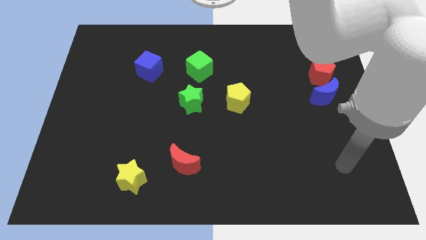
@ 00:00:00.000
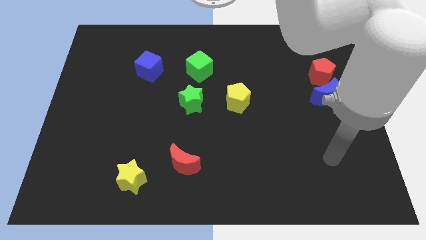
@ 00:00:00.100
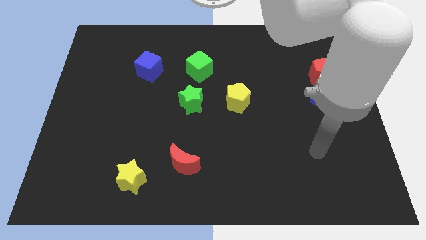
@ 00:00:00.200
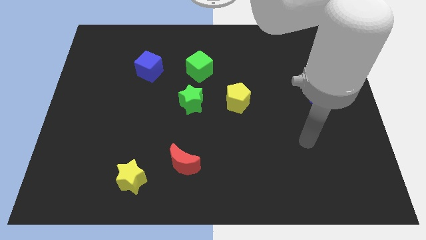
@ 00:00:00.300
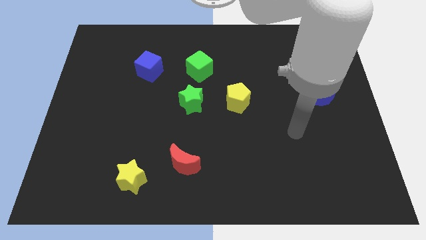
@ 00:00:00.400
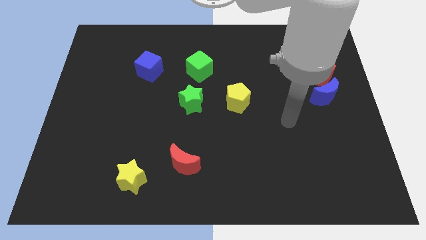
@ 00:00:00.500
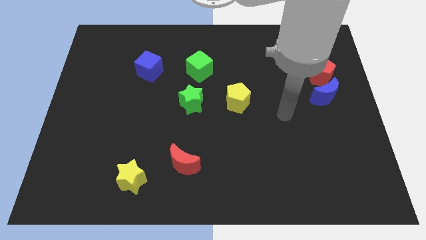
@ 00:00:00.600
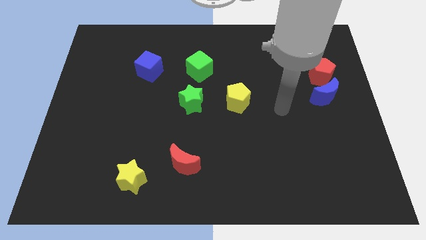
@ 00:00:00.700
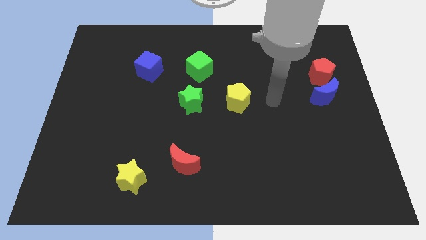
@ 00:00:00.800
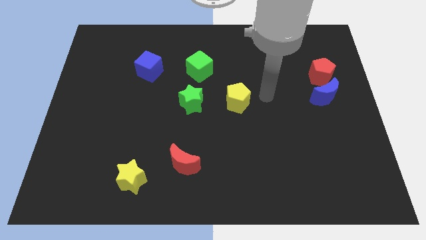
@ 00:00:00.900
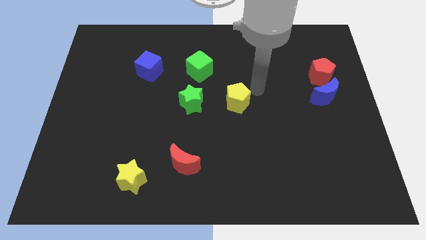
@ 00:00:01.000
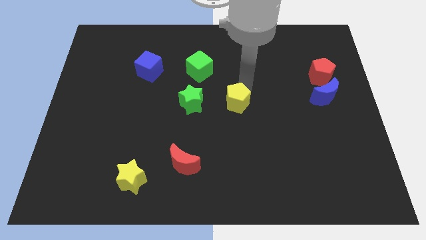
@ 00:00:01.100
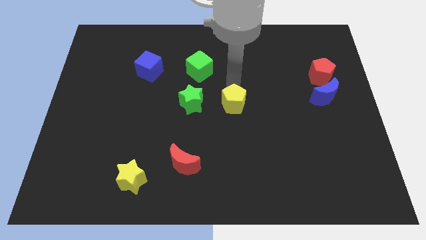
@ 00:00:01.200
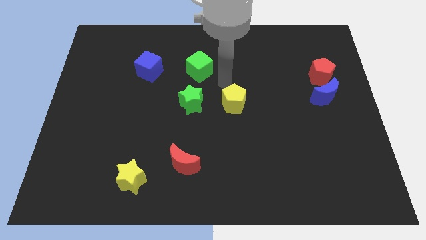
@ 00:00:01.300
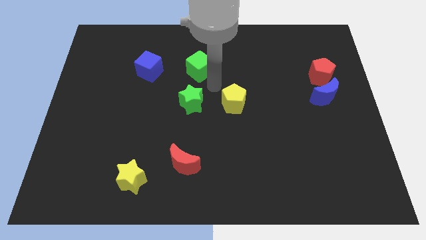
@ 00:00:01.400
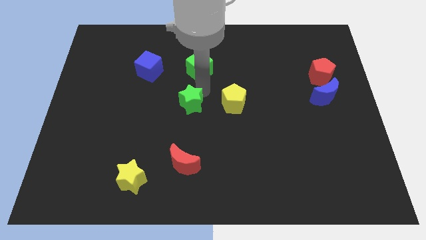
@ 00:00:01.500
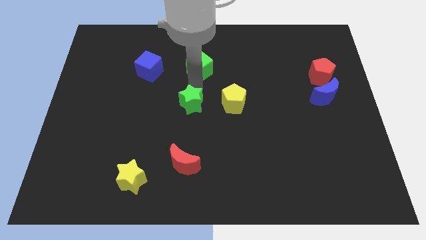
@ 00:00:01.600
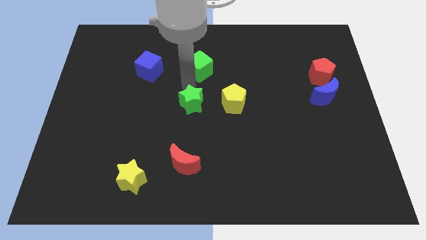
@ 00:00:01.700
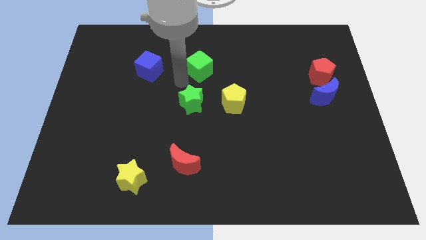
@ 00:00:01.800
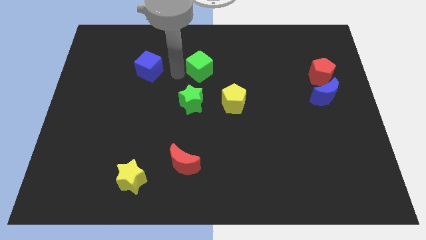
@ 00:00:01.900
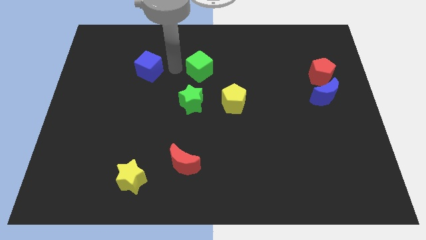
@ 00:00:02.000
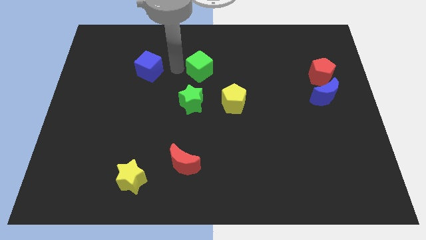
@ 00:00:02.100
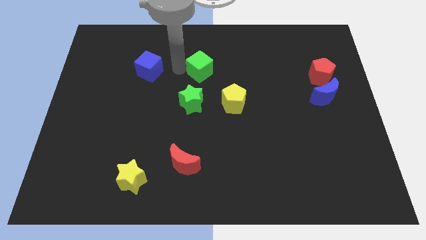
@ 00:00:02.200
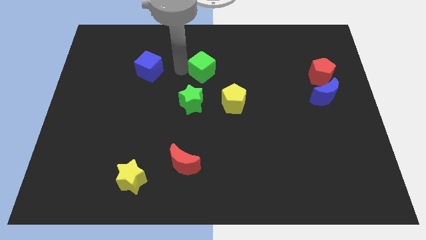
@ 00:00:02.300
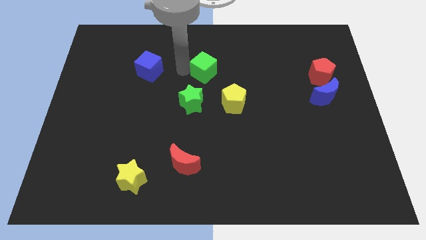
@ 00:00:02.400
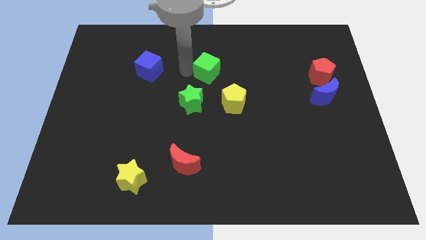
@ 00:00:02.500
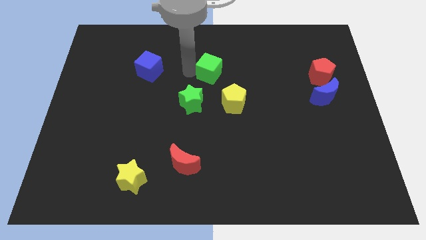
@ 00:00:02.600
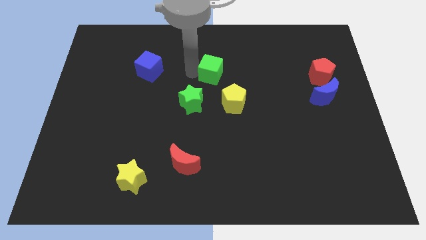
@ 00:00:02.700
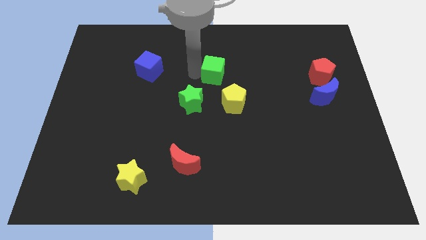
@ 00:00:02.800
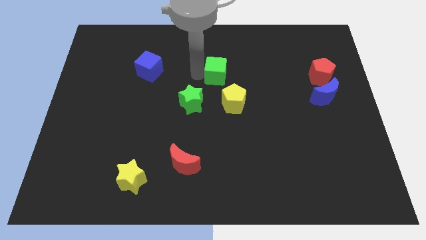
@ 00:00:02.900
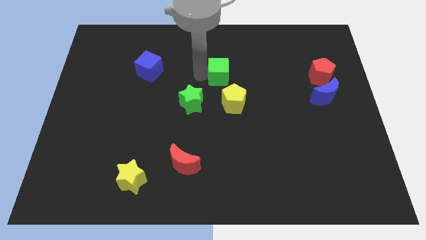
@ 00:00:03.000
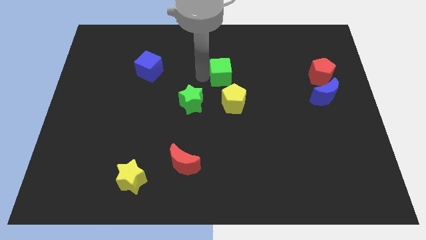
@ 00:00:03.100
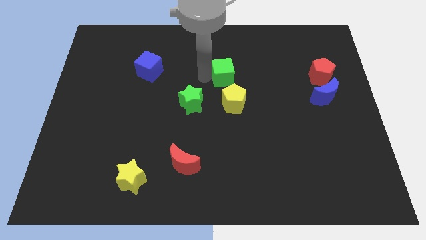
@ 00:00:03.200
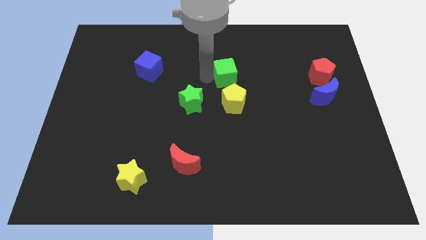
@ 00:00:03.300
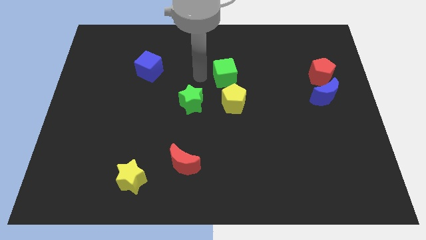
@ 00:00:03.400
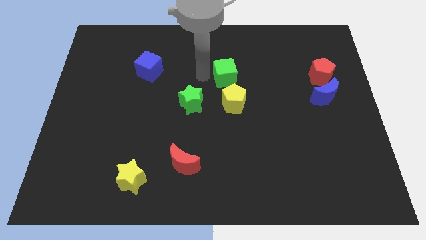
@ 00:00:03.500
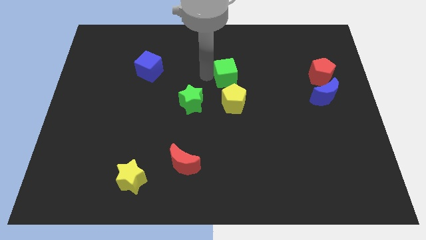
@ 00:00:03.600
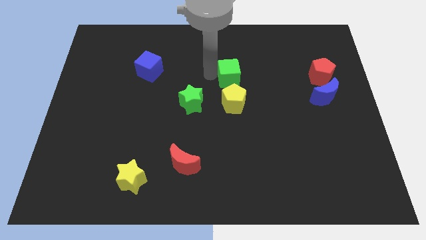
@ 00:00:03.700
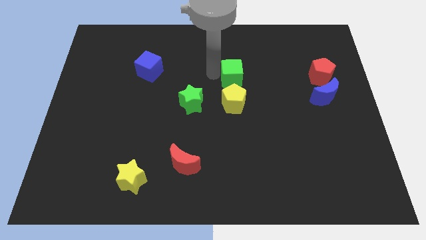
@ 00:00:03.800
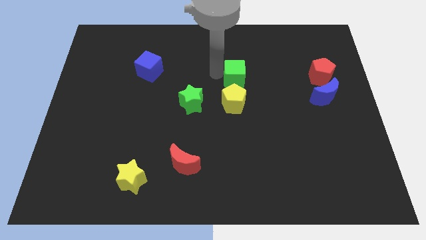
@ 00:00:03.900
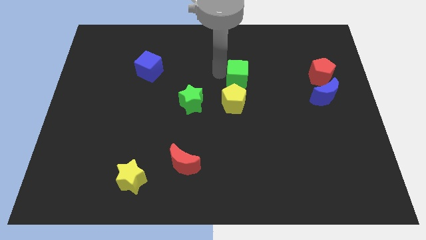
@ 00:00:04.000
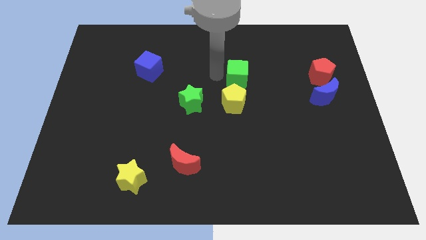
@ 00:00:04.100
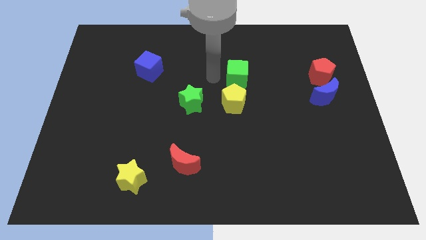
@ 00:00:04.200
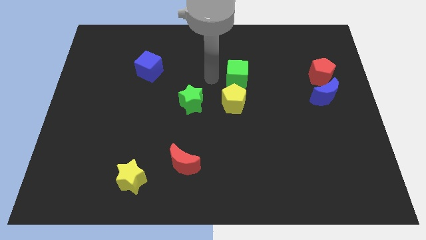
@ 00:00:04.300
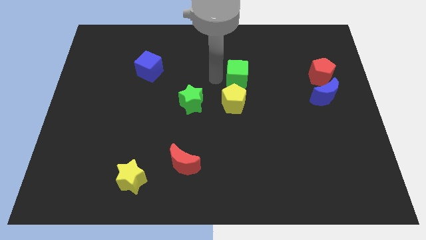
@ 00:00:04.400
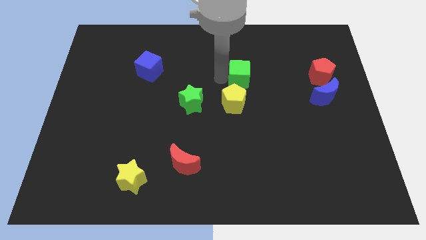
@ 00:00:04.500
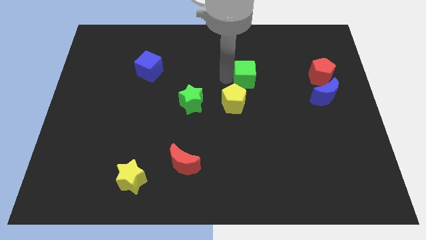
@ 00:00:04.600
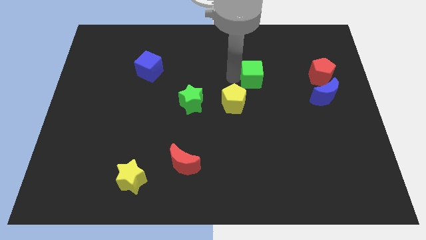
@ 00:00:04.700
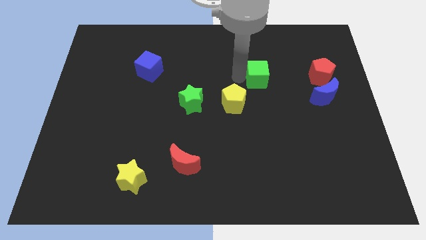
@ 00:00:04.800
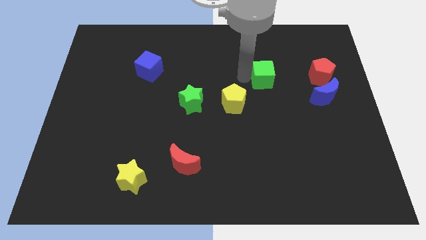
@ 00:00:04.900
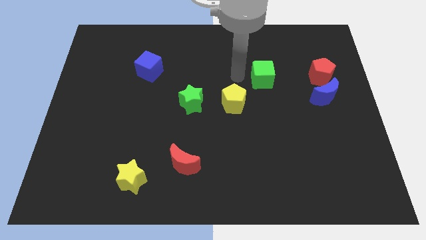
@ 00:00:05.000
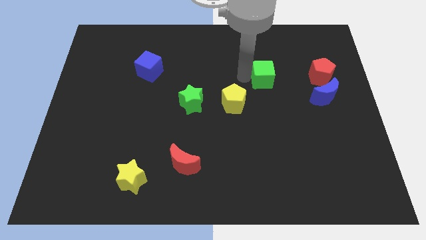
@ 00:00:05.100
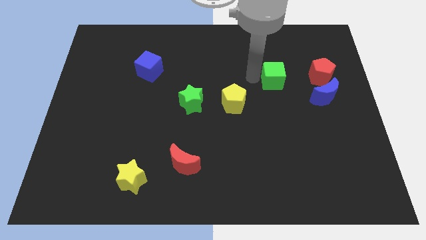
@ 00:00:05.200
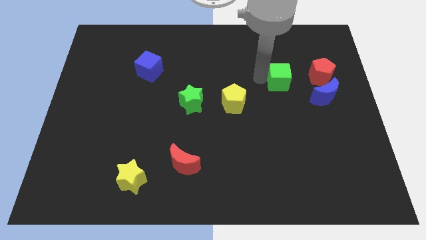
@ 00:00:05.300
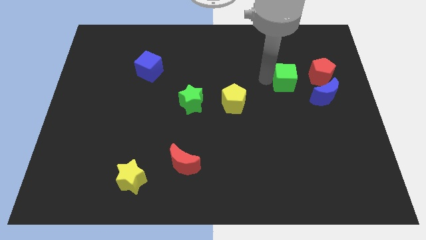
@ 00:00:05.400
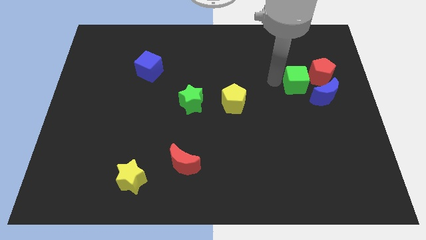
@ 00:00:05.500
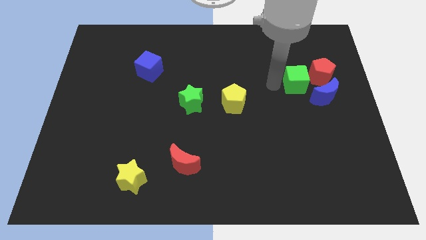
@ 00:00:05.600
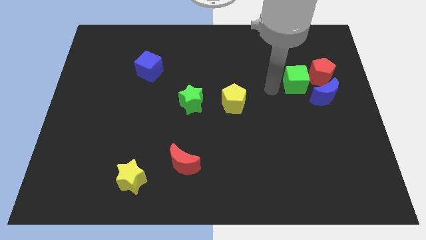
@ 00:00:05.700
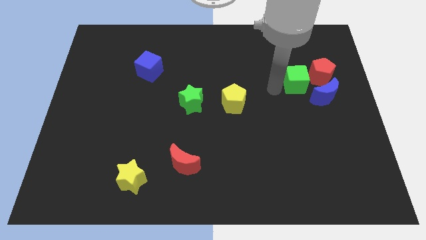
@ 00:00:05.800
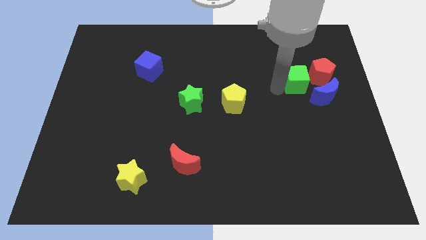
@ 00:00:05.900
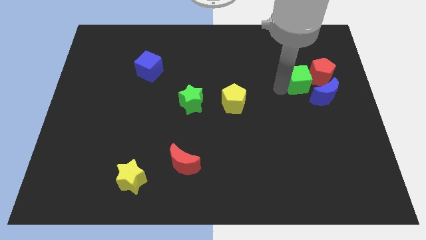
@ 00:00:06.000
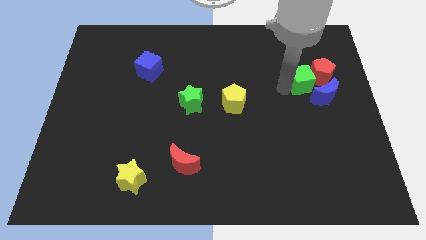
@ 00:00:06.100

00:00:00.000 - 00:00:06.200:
push the green cube next to the red pentagon

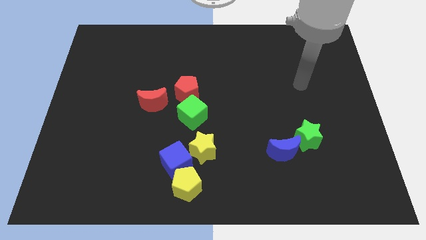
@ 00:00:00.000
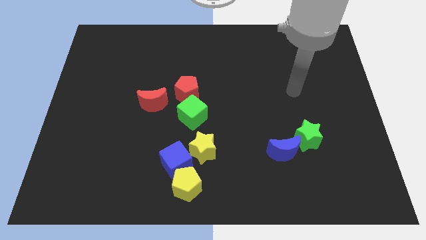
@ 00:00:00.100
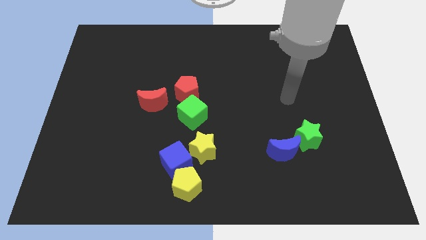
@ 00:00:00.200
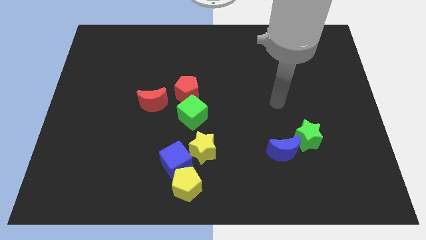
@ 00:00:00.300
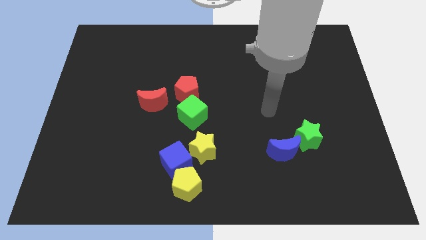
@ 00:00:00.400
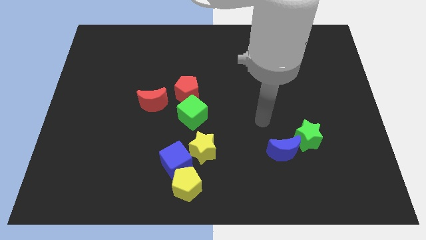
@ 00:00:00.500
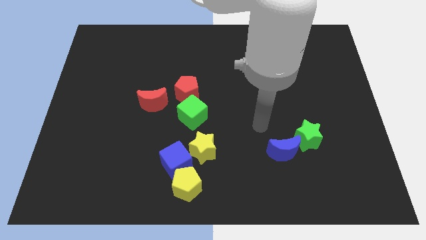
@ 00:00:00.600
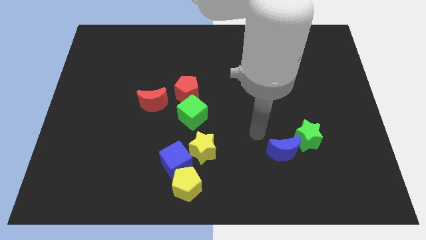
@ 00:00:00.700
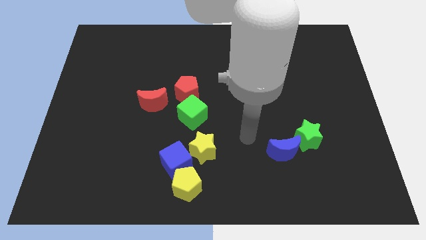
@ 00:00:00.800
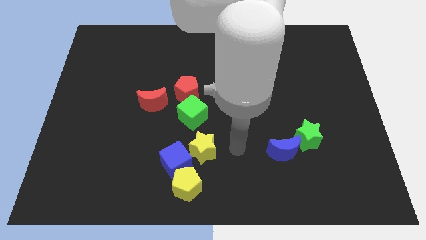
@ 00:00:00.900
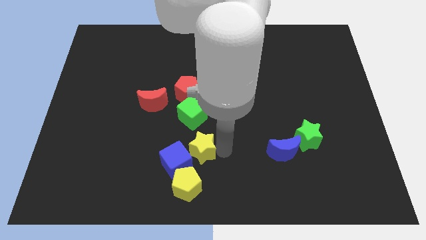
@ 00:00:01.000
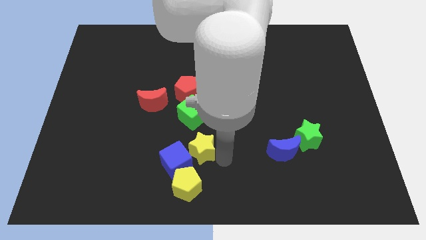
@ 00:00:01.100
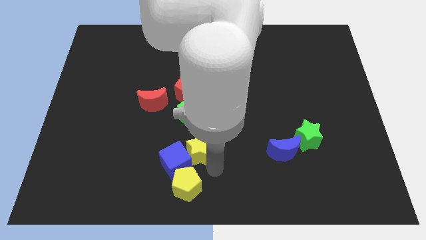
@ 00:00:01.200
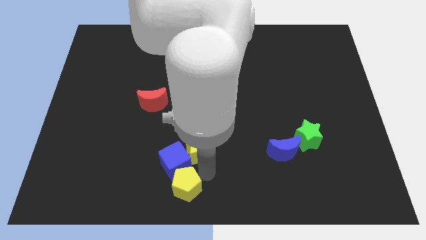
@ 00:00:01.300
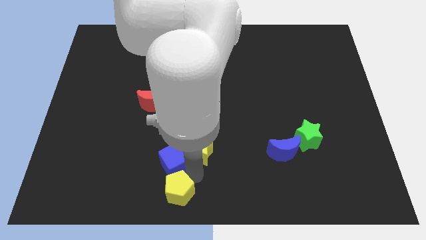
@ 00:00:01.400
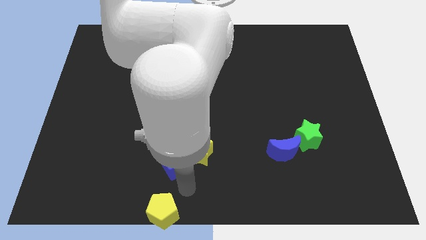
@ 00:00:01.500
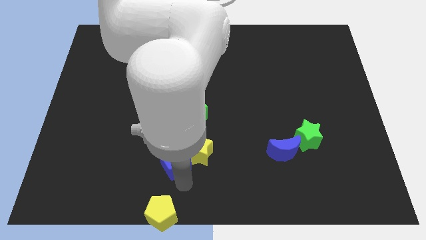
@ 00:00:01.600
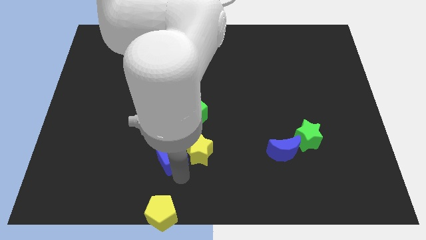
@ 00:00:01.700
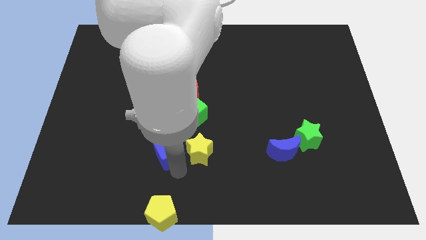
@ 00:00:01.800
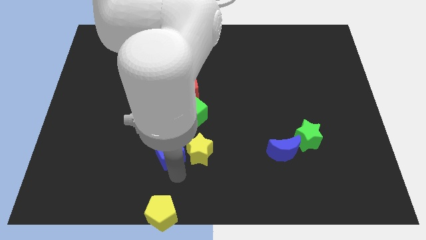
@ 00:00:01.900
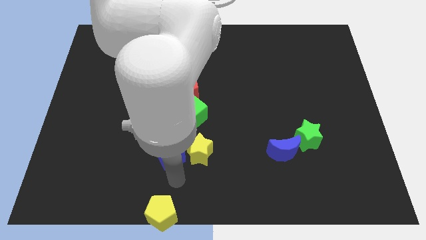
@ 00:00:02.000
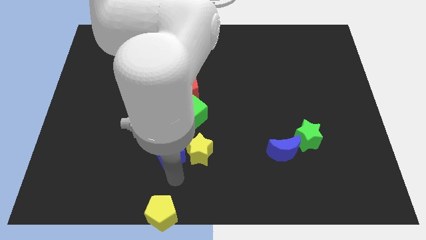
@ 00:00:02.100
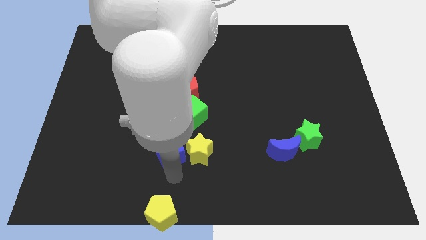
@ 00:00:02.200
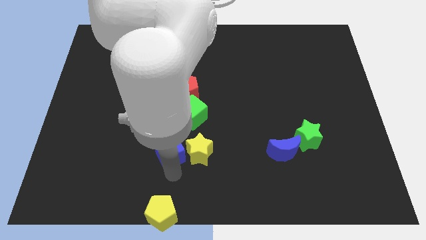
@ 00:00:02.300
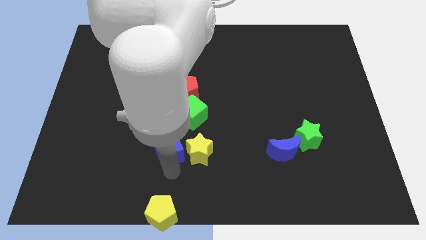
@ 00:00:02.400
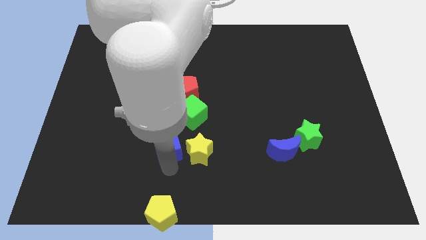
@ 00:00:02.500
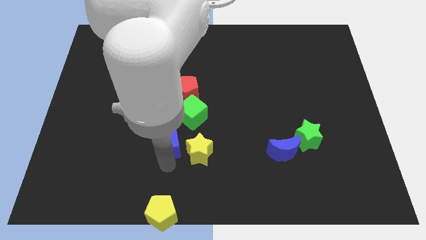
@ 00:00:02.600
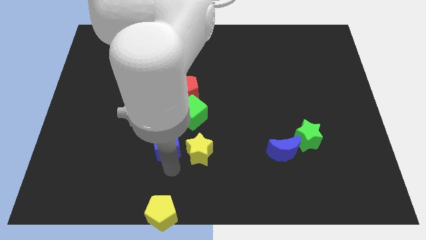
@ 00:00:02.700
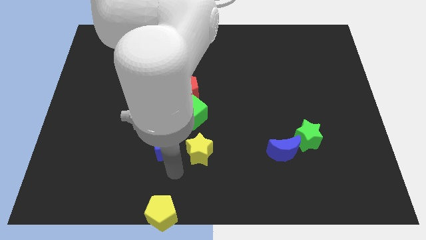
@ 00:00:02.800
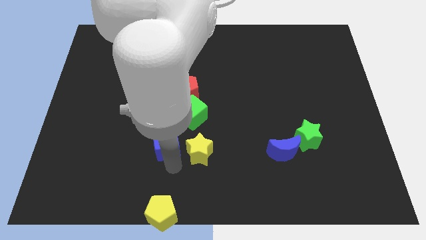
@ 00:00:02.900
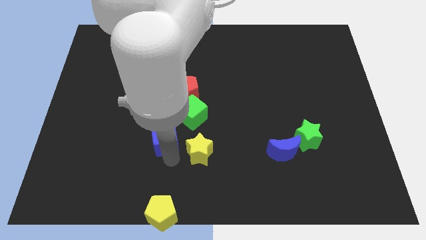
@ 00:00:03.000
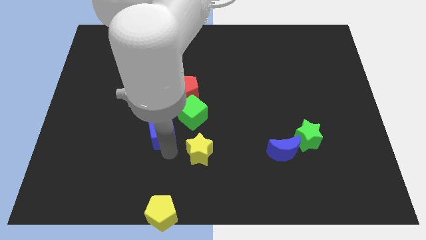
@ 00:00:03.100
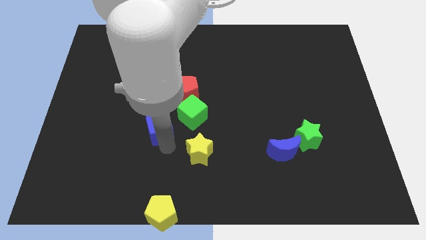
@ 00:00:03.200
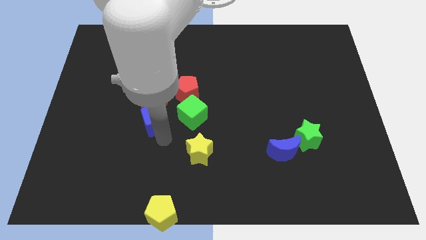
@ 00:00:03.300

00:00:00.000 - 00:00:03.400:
put the blue cube towards the red moon
